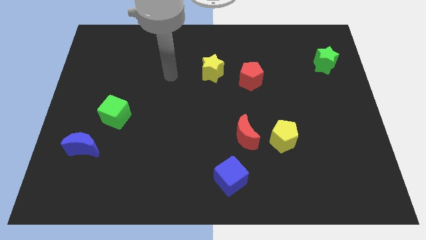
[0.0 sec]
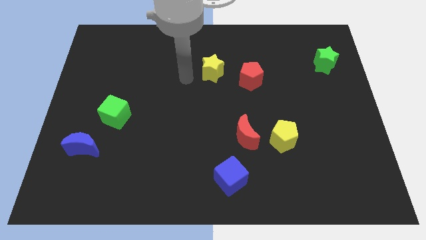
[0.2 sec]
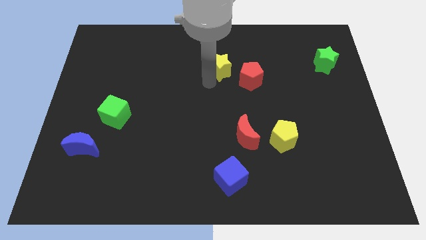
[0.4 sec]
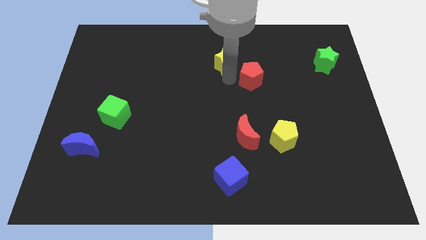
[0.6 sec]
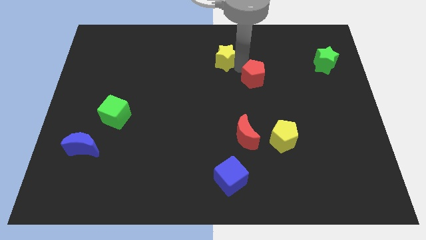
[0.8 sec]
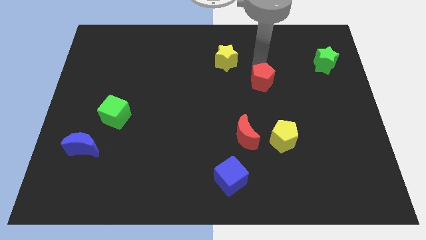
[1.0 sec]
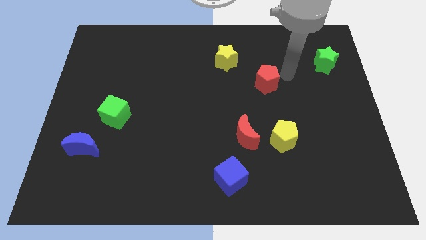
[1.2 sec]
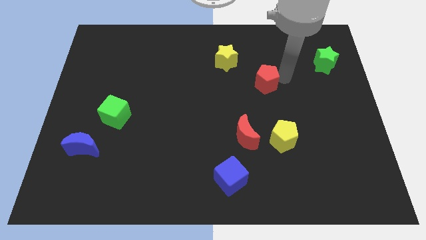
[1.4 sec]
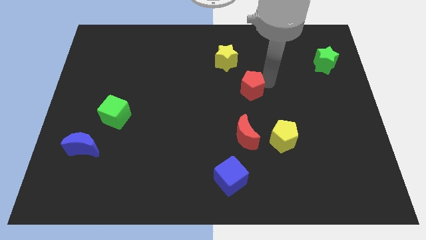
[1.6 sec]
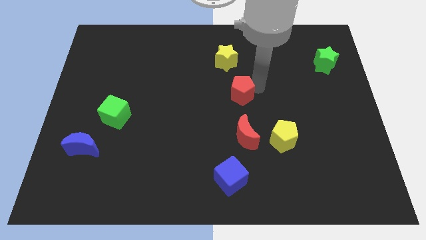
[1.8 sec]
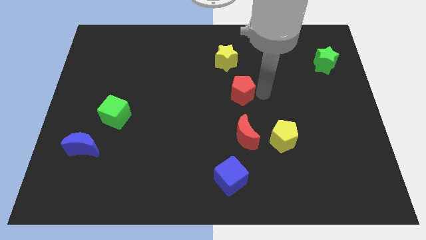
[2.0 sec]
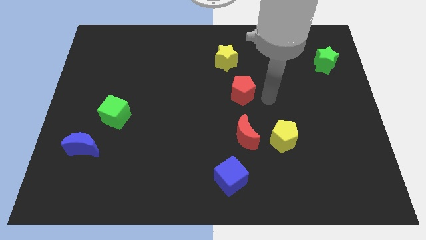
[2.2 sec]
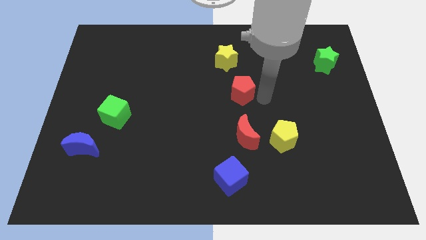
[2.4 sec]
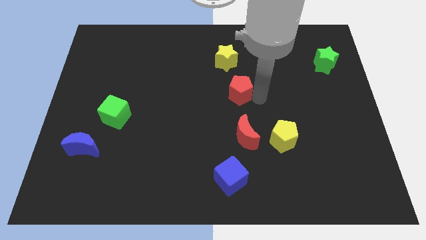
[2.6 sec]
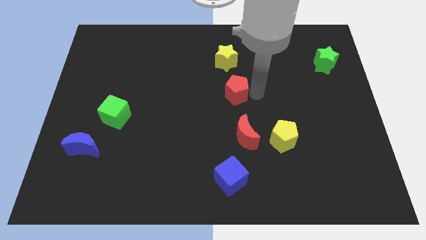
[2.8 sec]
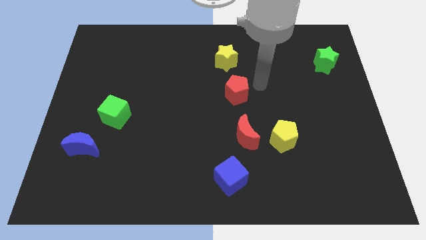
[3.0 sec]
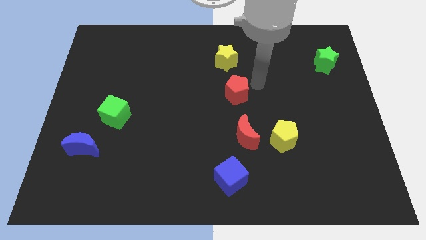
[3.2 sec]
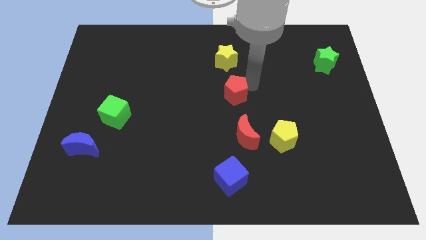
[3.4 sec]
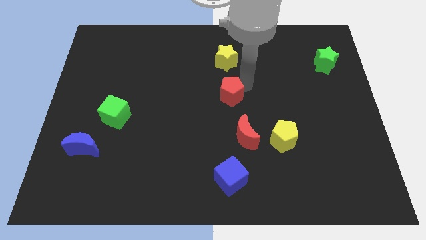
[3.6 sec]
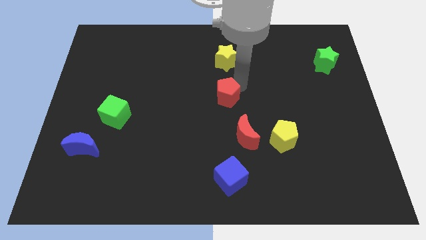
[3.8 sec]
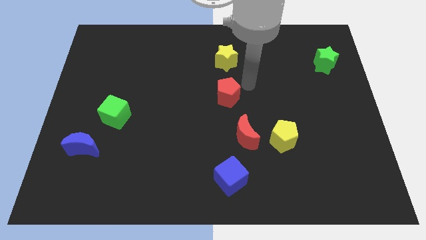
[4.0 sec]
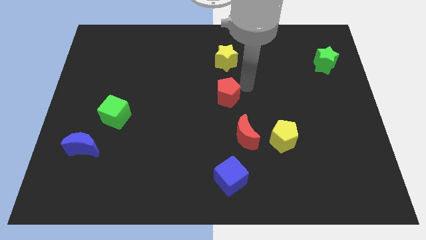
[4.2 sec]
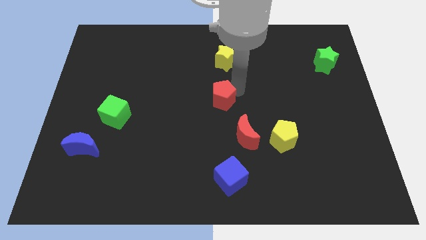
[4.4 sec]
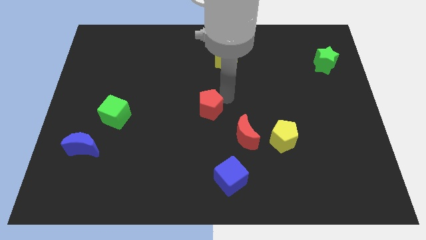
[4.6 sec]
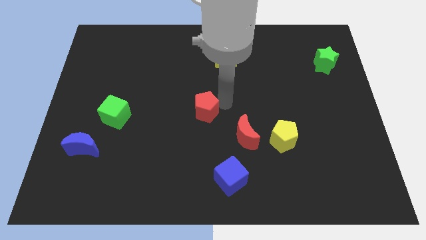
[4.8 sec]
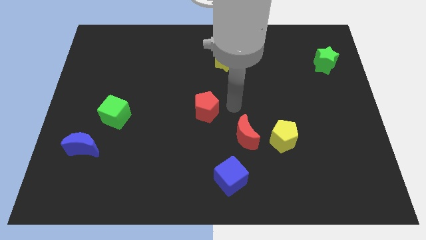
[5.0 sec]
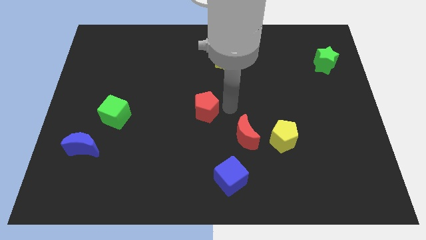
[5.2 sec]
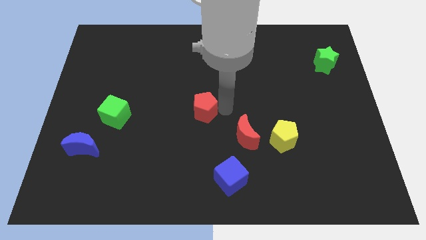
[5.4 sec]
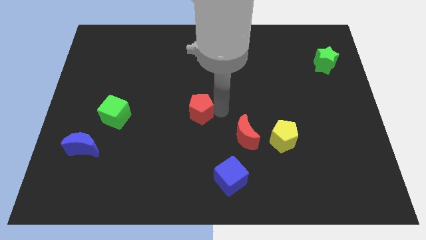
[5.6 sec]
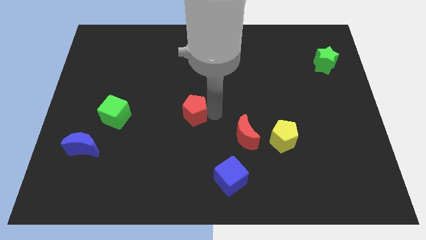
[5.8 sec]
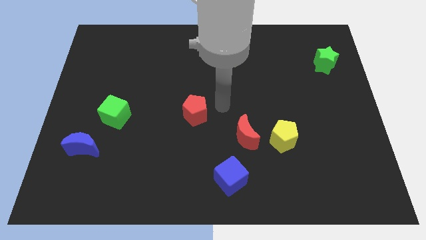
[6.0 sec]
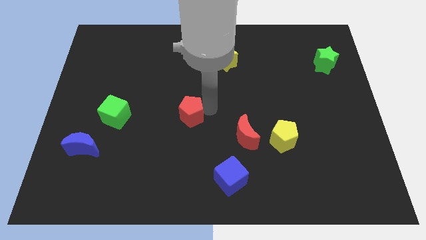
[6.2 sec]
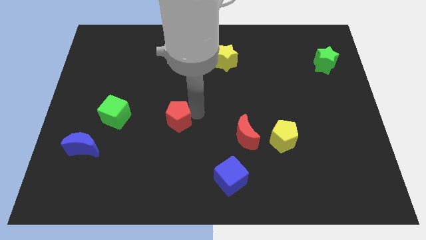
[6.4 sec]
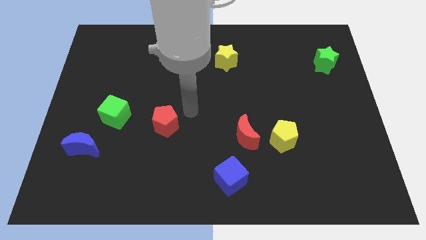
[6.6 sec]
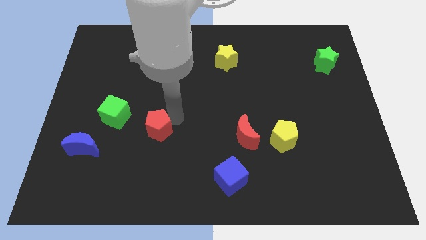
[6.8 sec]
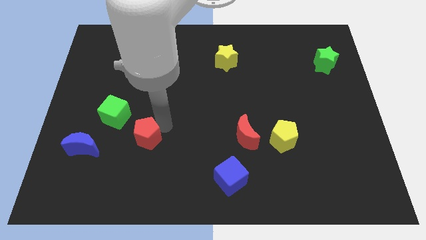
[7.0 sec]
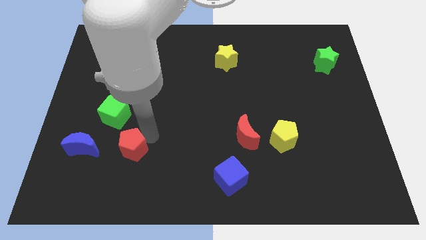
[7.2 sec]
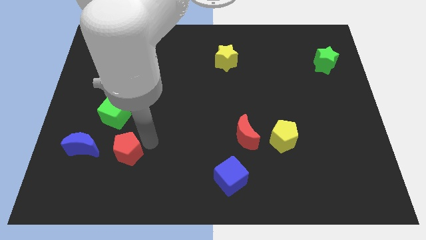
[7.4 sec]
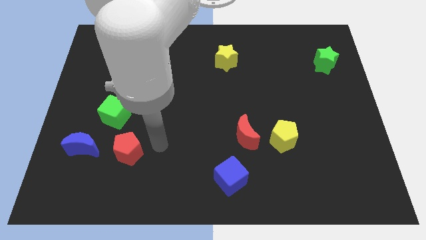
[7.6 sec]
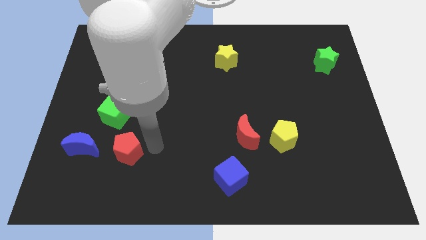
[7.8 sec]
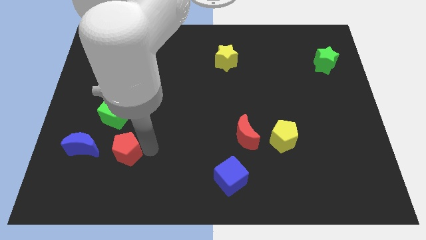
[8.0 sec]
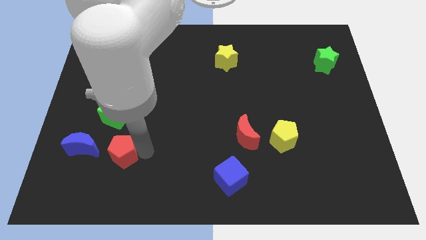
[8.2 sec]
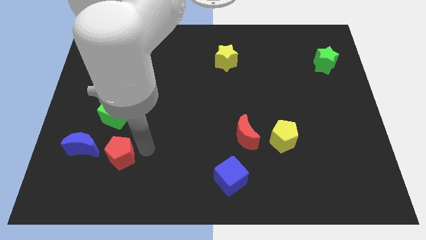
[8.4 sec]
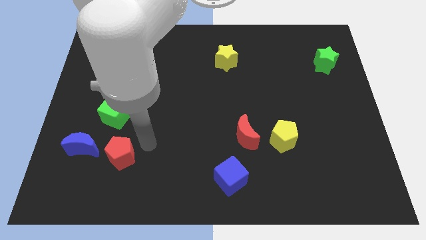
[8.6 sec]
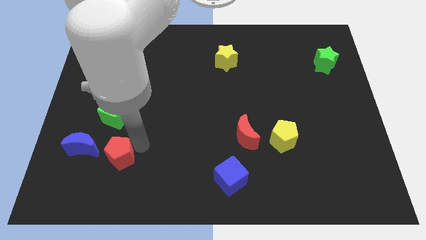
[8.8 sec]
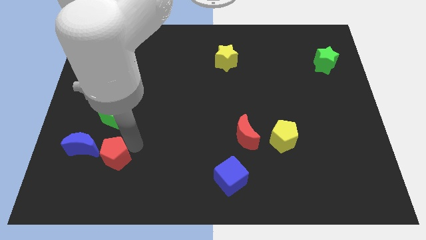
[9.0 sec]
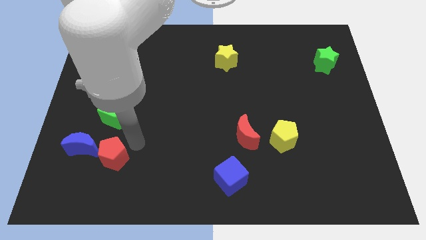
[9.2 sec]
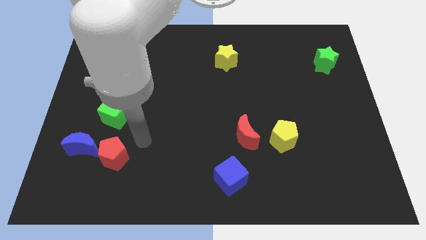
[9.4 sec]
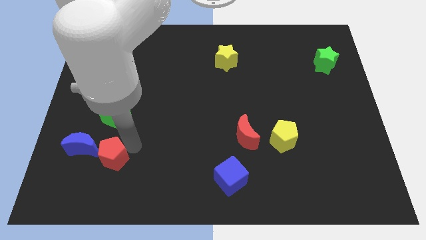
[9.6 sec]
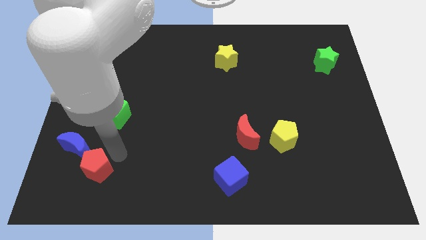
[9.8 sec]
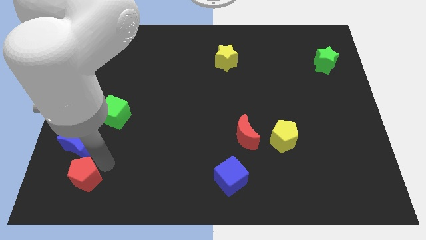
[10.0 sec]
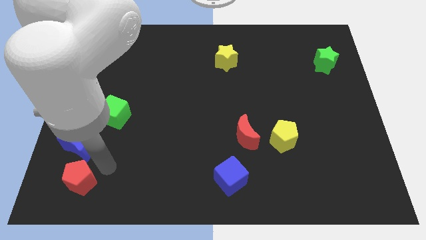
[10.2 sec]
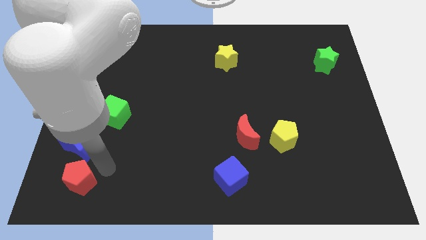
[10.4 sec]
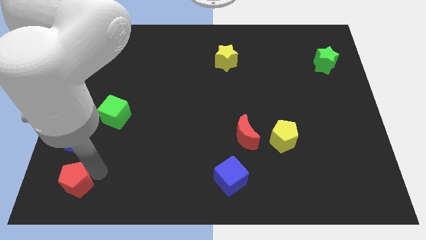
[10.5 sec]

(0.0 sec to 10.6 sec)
slide the red pentagon to the bottom left of the board

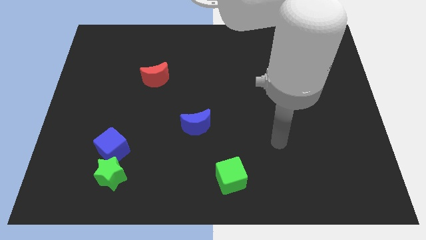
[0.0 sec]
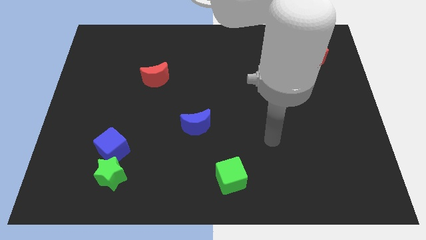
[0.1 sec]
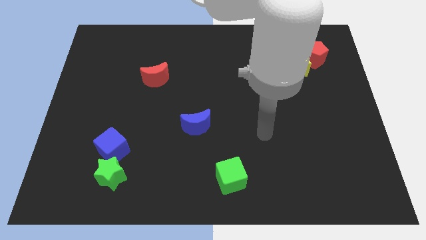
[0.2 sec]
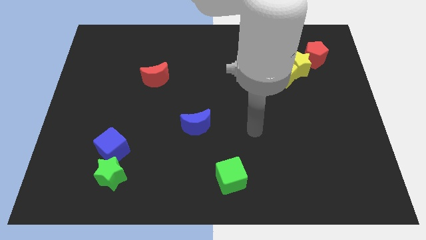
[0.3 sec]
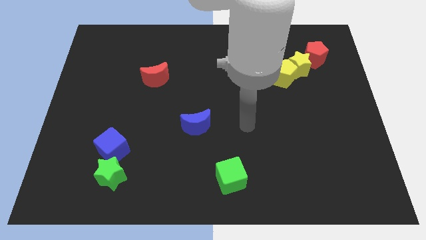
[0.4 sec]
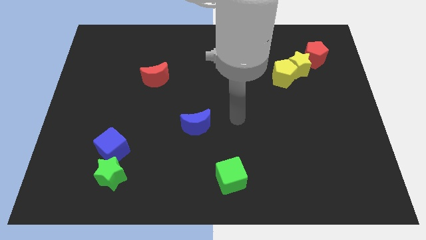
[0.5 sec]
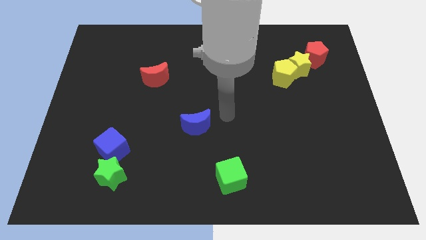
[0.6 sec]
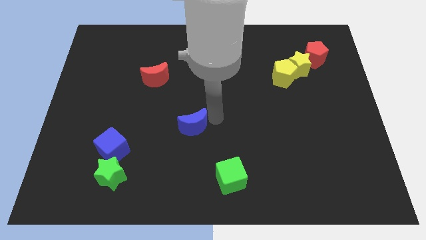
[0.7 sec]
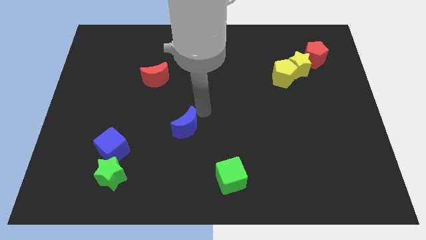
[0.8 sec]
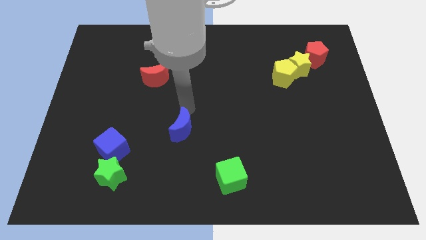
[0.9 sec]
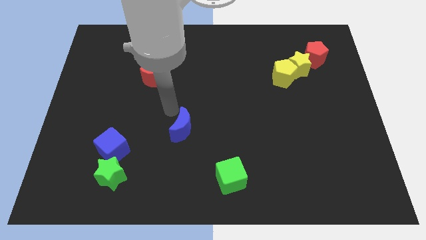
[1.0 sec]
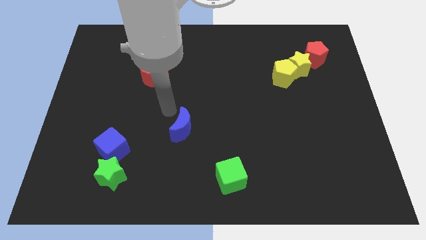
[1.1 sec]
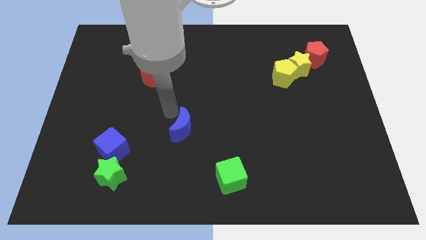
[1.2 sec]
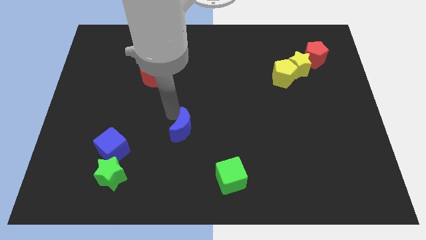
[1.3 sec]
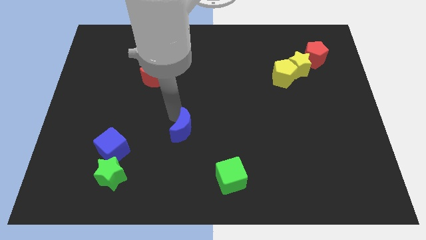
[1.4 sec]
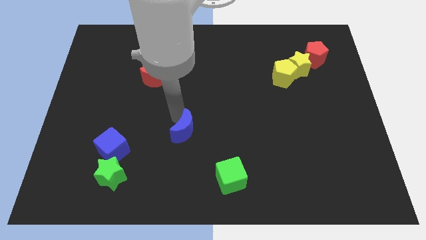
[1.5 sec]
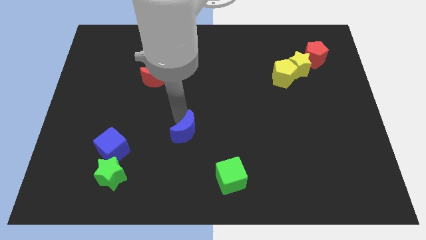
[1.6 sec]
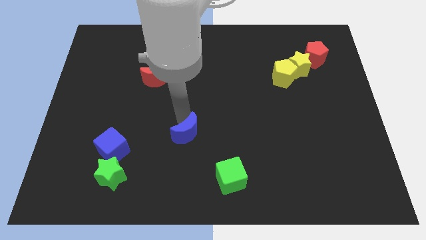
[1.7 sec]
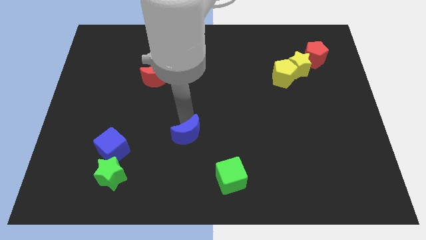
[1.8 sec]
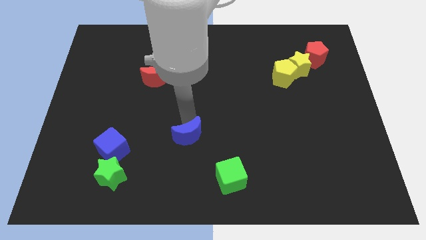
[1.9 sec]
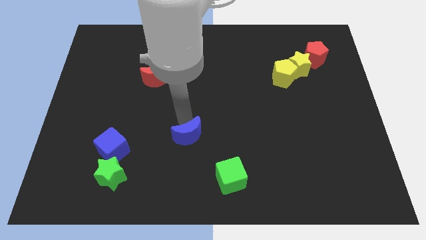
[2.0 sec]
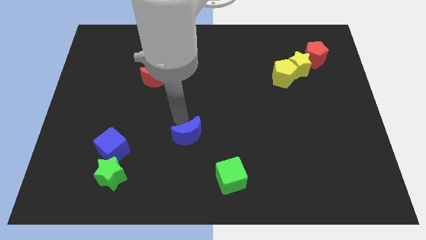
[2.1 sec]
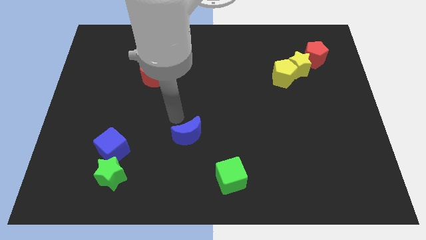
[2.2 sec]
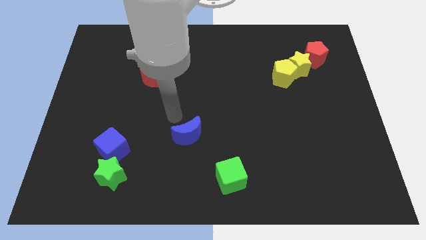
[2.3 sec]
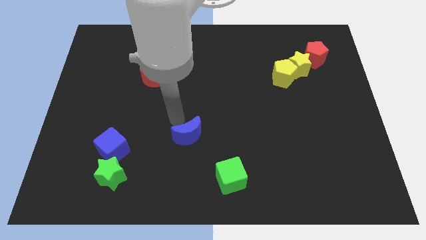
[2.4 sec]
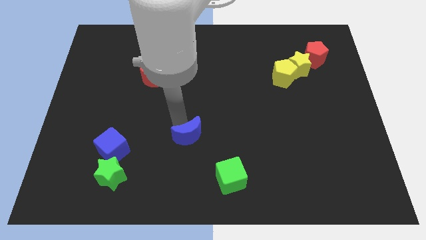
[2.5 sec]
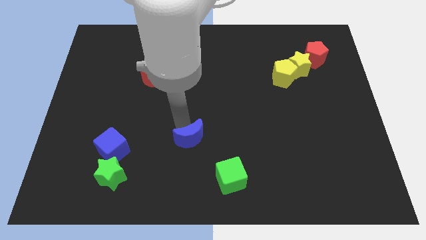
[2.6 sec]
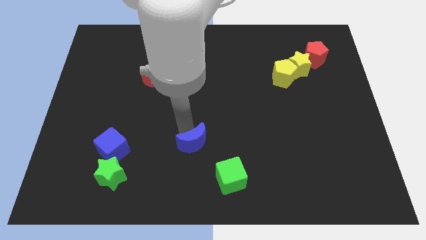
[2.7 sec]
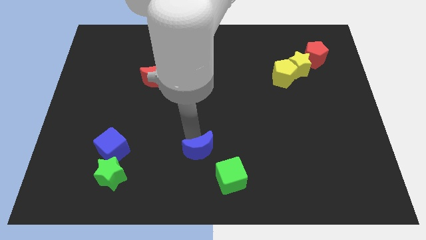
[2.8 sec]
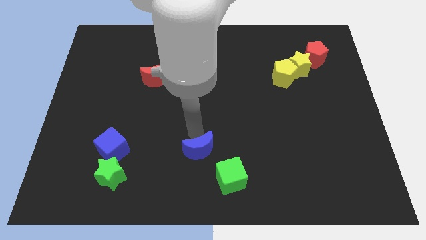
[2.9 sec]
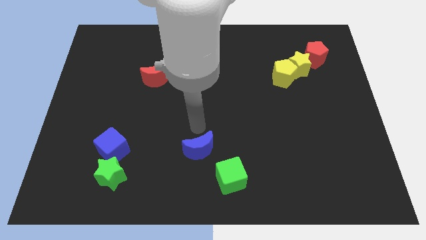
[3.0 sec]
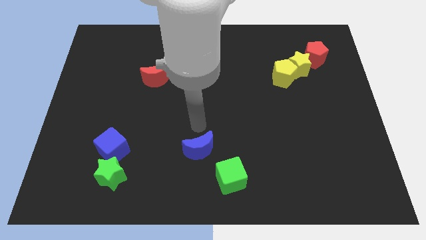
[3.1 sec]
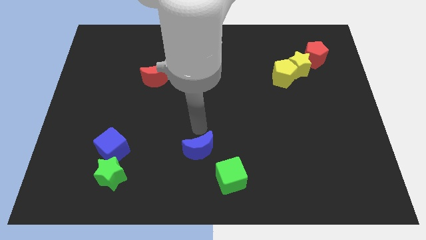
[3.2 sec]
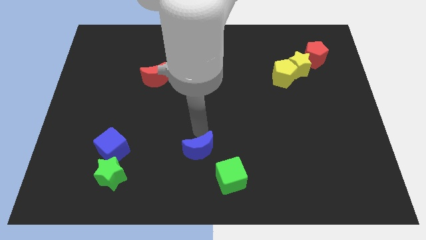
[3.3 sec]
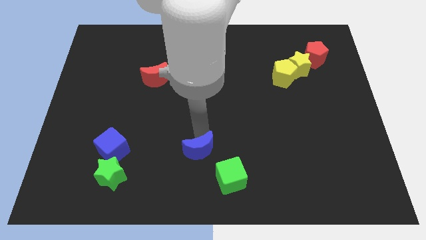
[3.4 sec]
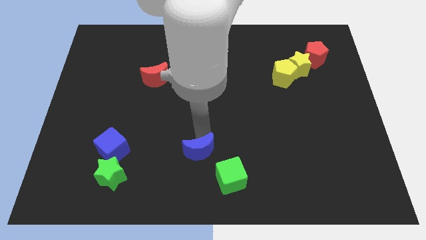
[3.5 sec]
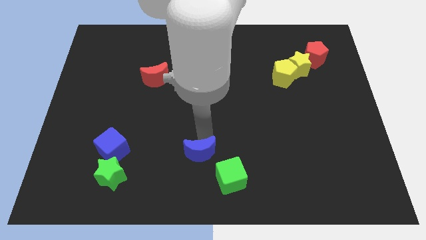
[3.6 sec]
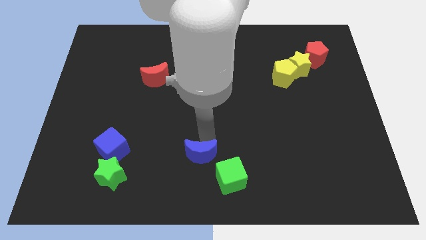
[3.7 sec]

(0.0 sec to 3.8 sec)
push the blue moon to the bottom side
